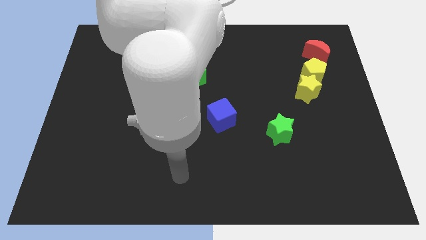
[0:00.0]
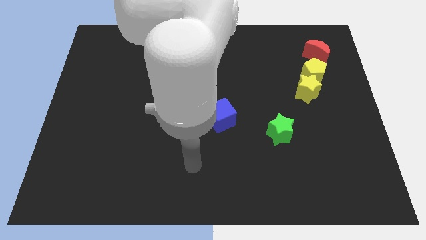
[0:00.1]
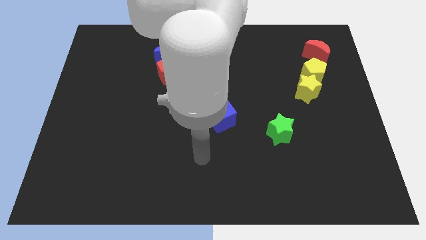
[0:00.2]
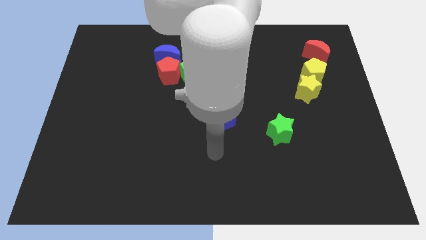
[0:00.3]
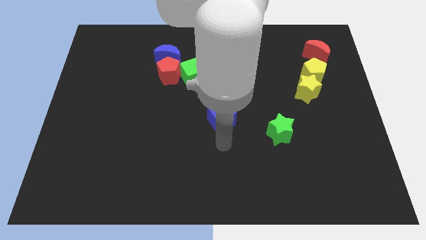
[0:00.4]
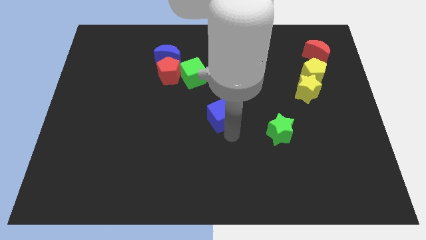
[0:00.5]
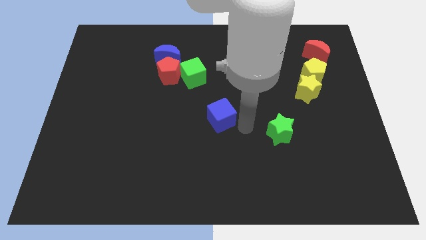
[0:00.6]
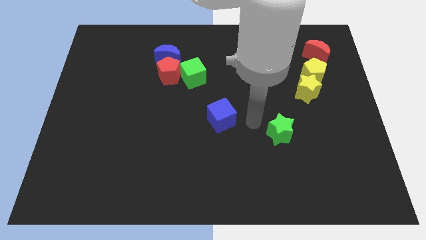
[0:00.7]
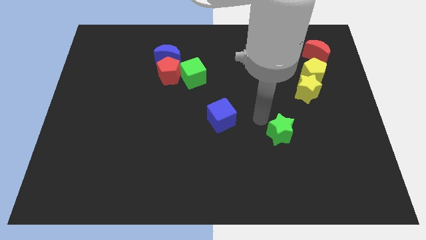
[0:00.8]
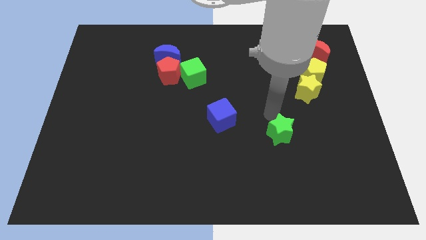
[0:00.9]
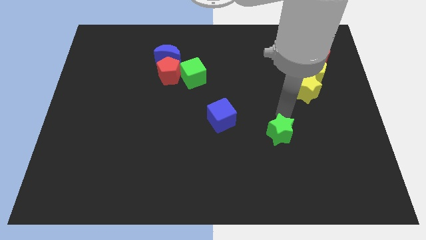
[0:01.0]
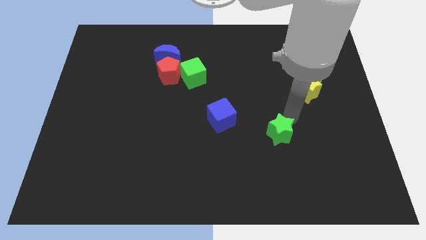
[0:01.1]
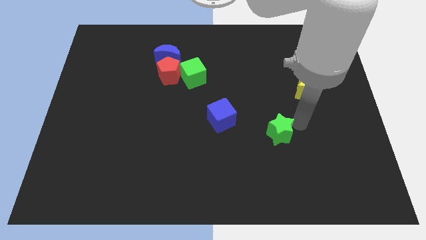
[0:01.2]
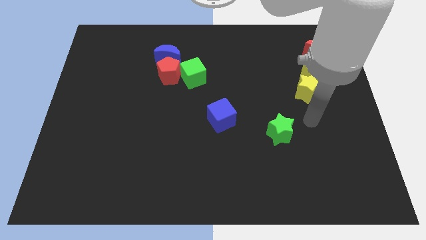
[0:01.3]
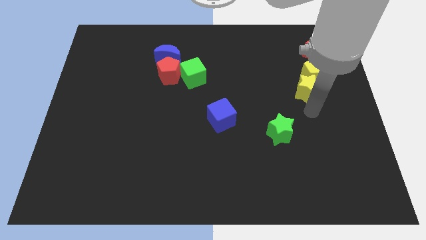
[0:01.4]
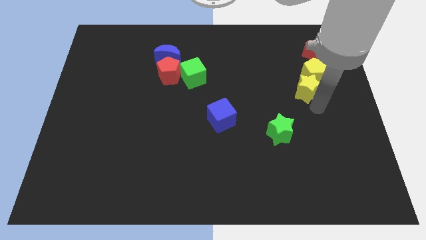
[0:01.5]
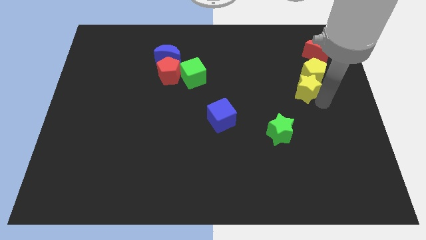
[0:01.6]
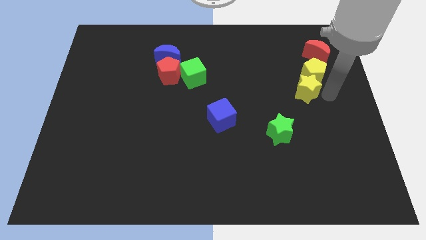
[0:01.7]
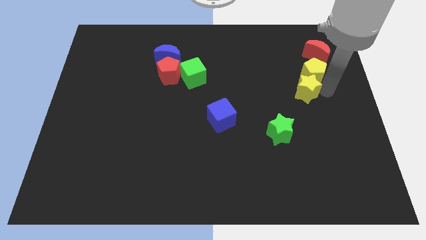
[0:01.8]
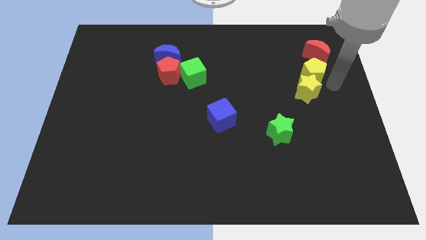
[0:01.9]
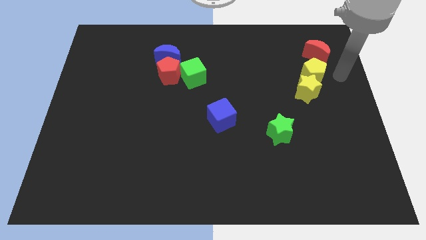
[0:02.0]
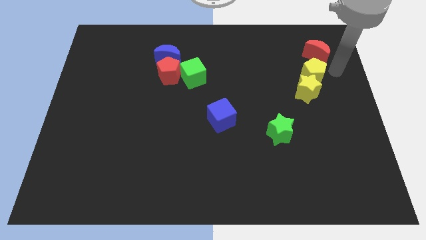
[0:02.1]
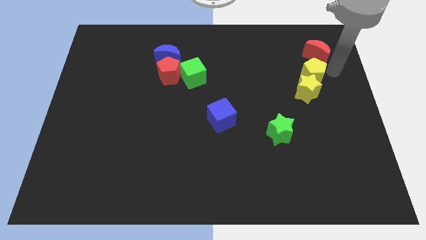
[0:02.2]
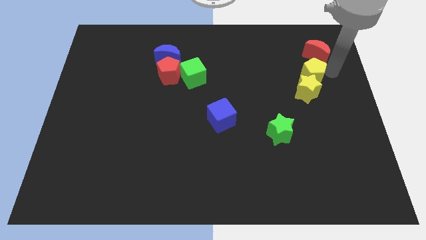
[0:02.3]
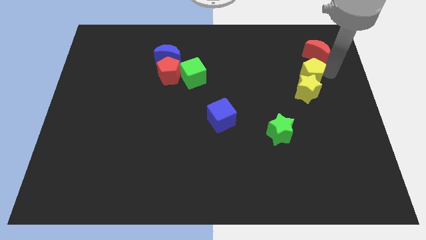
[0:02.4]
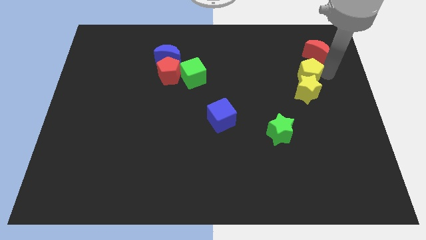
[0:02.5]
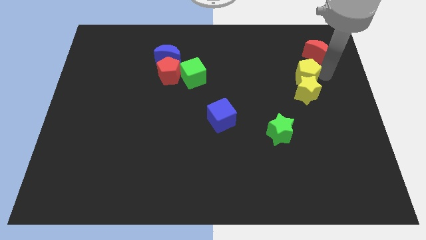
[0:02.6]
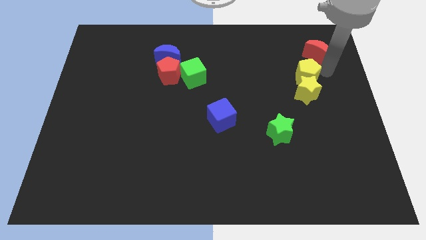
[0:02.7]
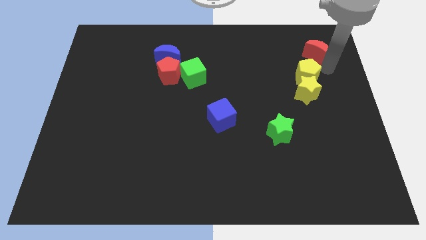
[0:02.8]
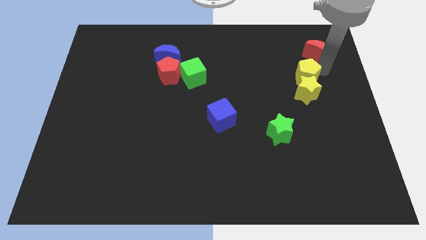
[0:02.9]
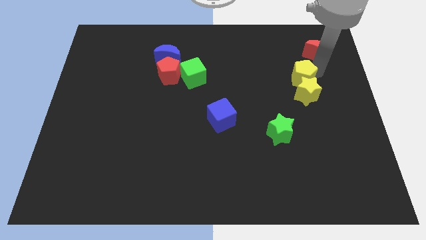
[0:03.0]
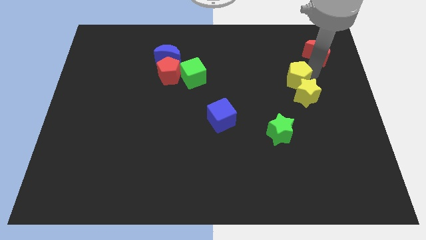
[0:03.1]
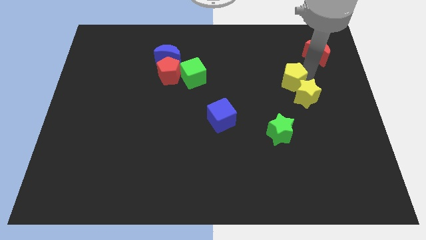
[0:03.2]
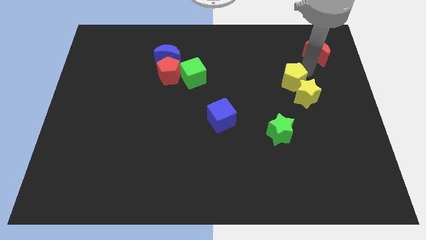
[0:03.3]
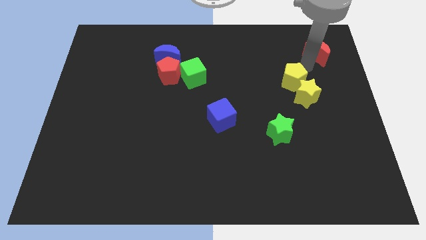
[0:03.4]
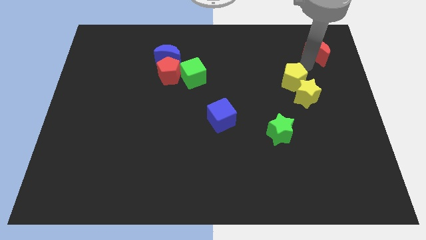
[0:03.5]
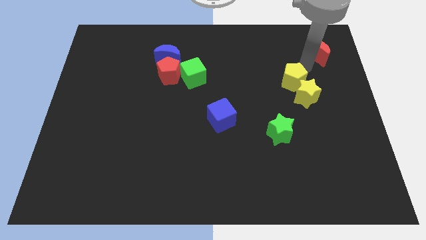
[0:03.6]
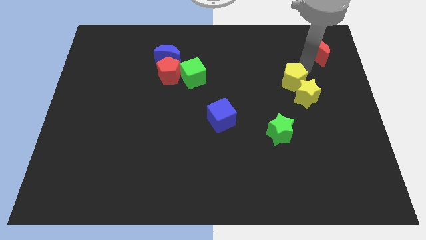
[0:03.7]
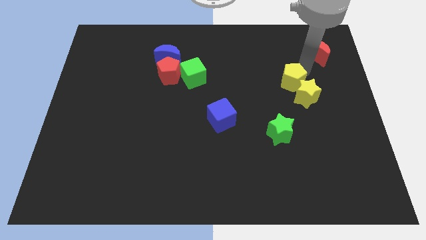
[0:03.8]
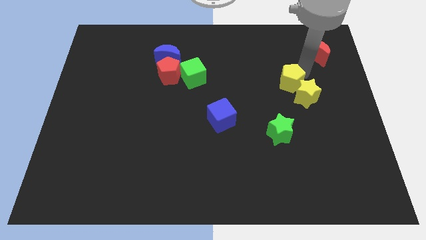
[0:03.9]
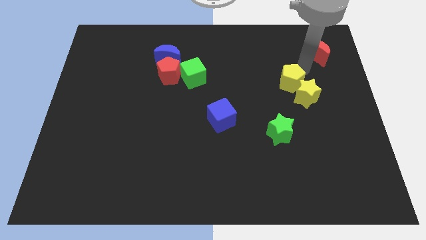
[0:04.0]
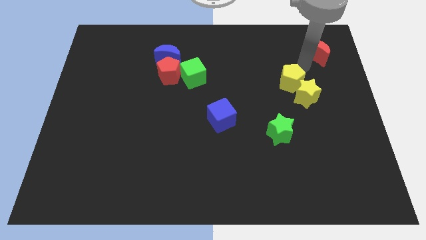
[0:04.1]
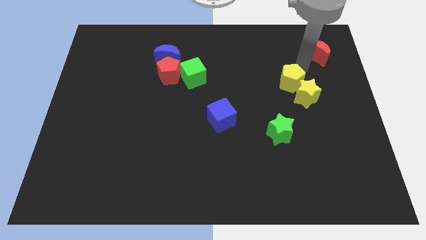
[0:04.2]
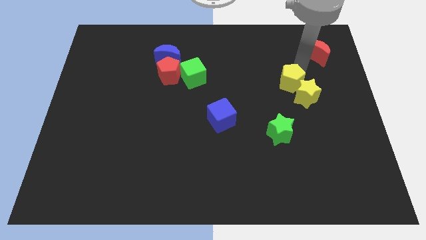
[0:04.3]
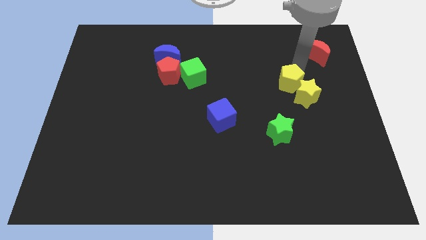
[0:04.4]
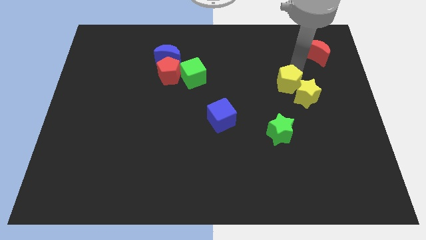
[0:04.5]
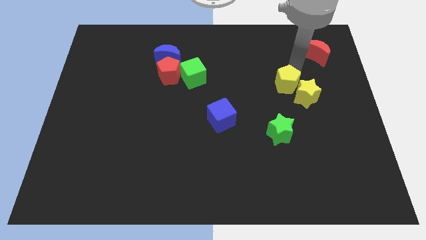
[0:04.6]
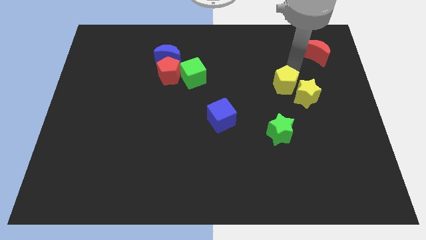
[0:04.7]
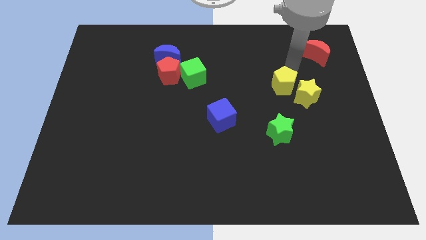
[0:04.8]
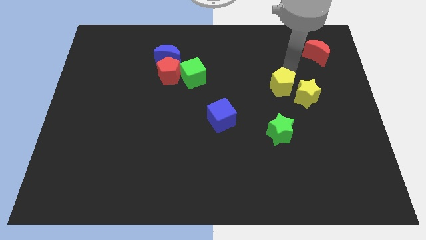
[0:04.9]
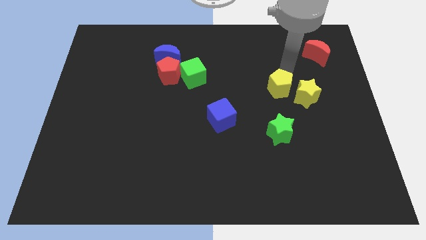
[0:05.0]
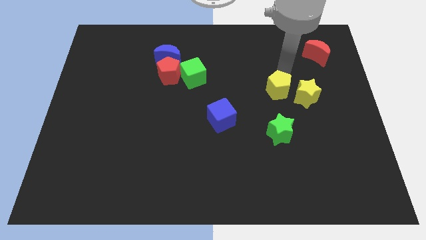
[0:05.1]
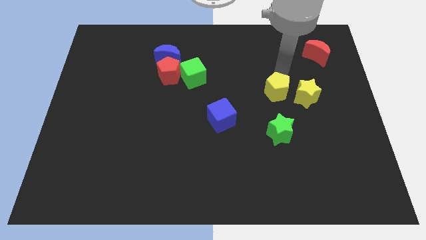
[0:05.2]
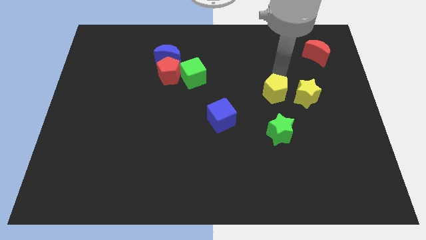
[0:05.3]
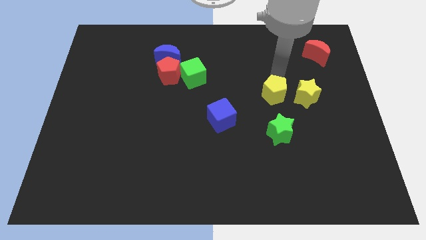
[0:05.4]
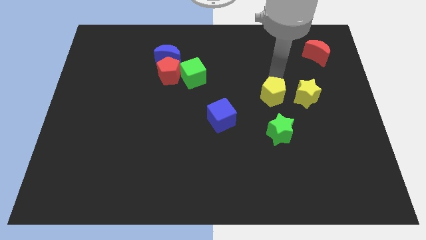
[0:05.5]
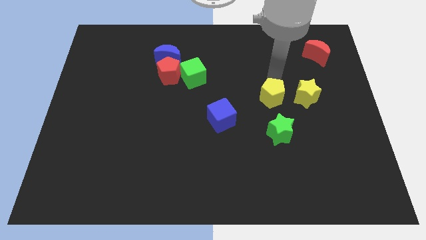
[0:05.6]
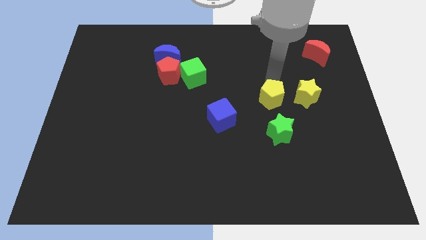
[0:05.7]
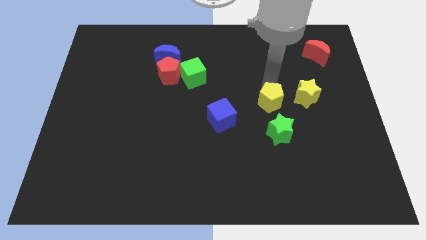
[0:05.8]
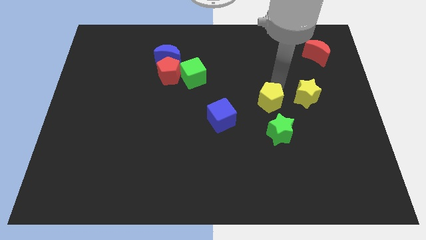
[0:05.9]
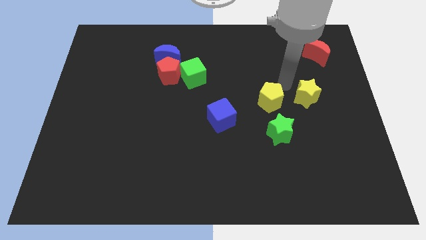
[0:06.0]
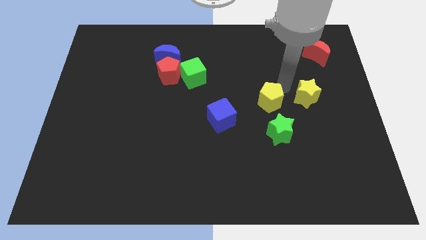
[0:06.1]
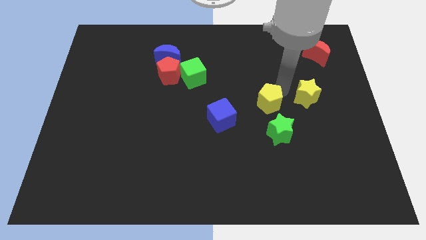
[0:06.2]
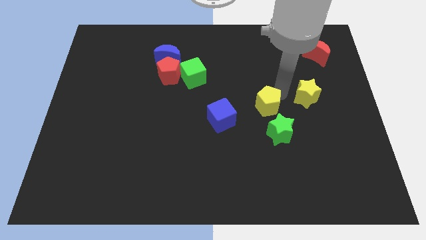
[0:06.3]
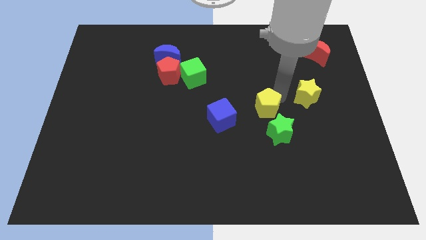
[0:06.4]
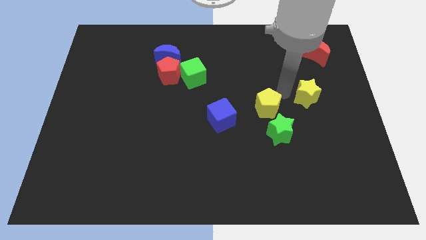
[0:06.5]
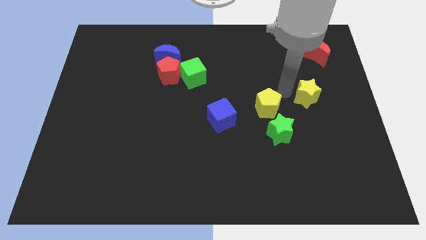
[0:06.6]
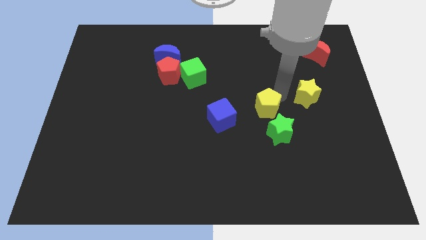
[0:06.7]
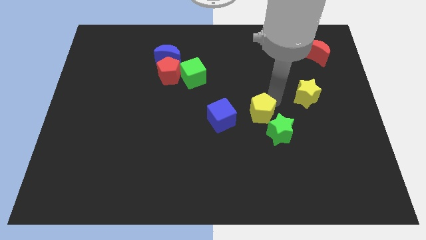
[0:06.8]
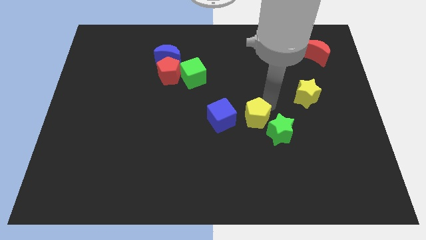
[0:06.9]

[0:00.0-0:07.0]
push the yellow pentagon downwards and left diagonally

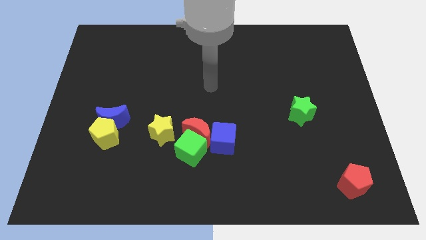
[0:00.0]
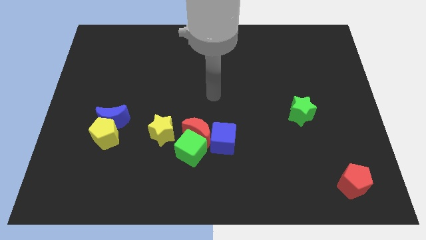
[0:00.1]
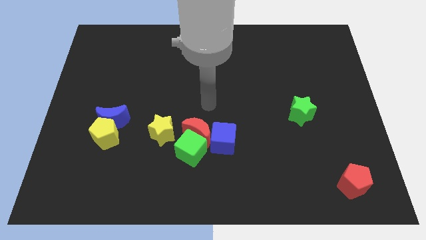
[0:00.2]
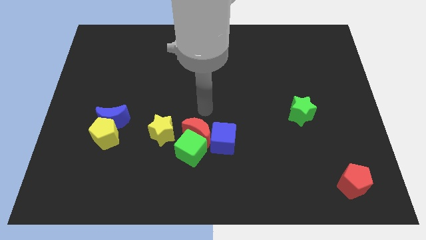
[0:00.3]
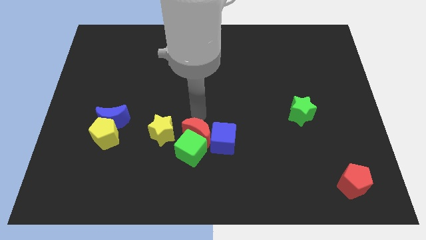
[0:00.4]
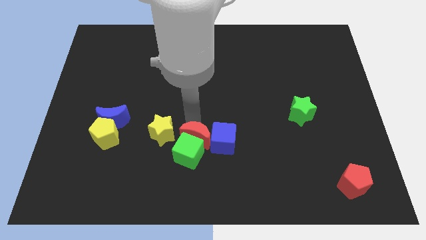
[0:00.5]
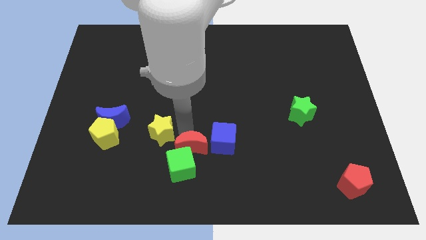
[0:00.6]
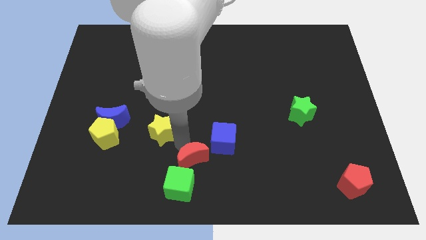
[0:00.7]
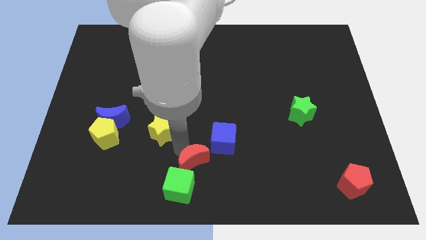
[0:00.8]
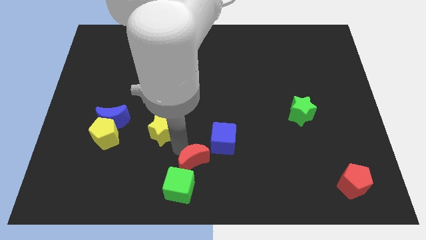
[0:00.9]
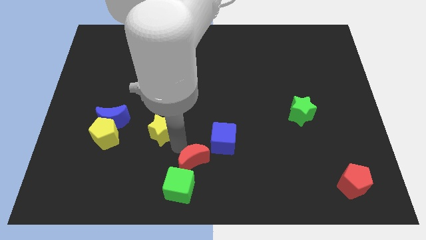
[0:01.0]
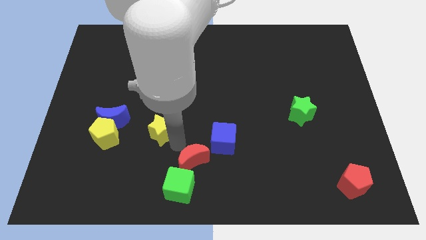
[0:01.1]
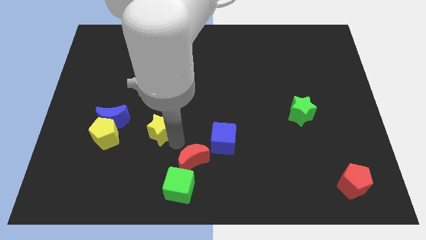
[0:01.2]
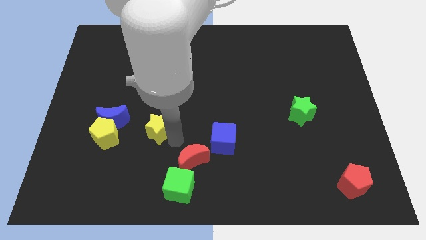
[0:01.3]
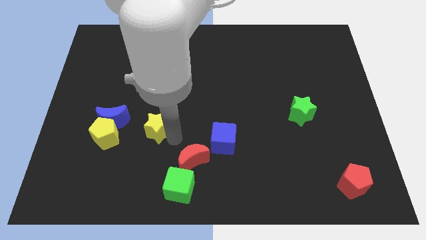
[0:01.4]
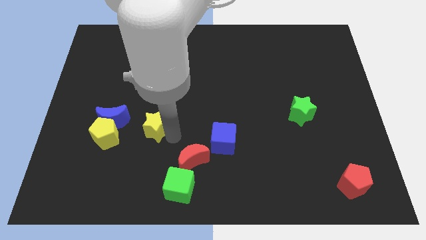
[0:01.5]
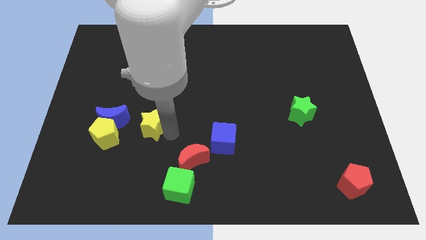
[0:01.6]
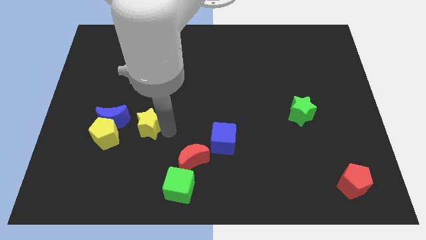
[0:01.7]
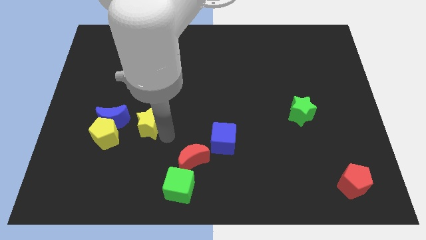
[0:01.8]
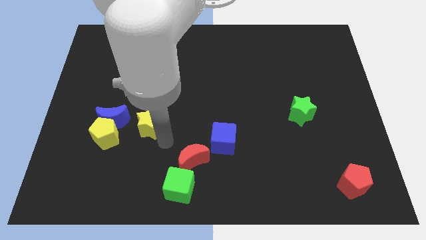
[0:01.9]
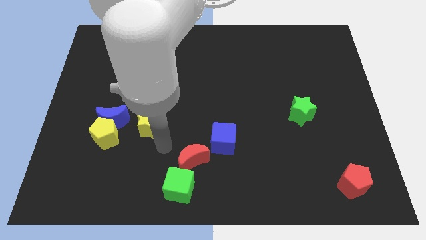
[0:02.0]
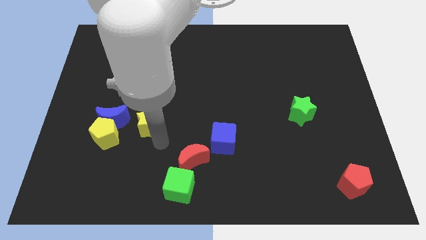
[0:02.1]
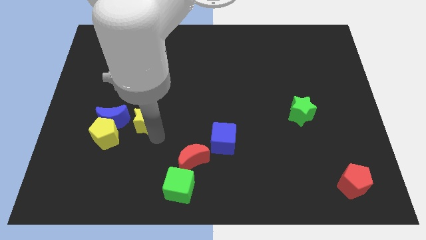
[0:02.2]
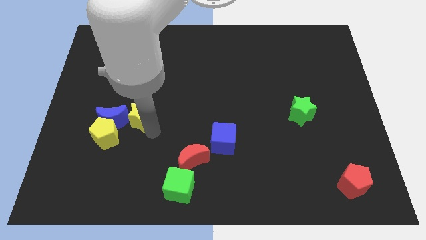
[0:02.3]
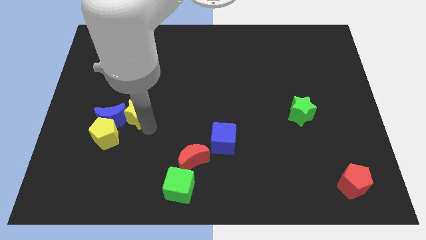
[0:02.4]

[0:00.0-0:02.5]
move the yellow star up and left a little
